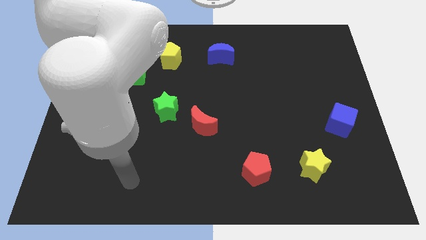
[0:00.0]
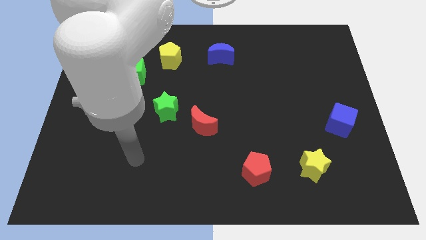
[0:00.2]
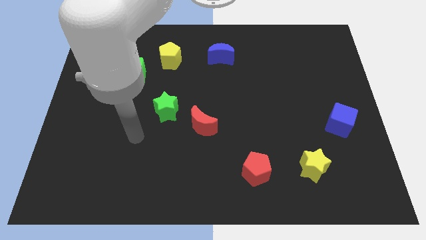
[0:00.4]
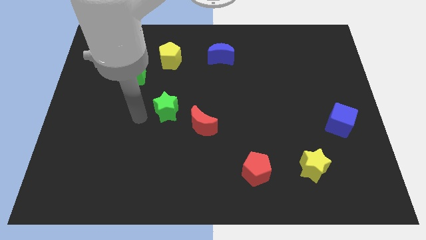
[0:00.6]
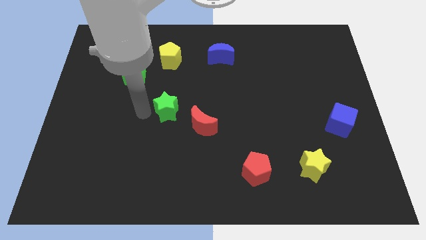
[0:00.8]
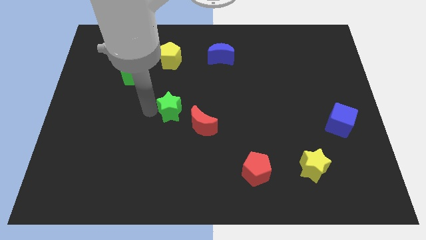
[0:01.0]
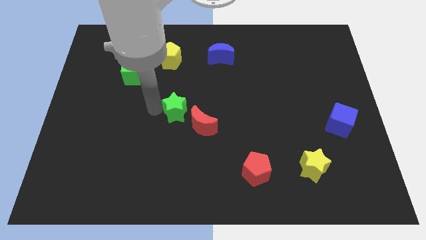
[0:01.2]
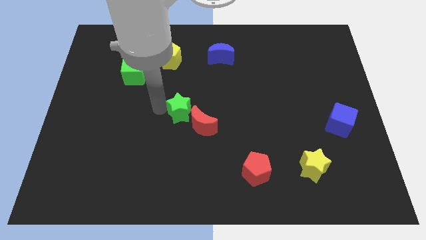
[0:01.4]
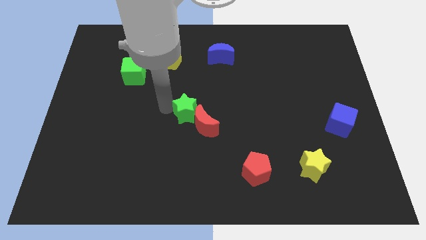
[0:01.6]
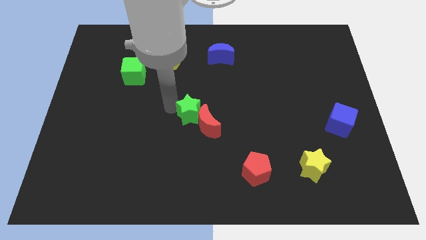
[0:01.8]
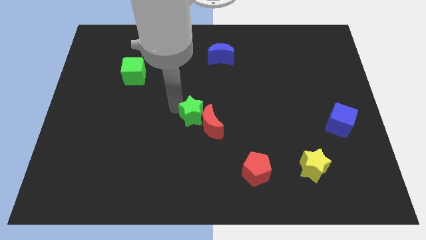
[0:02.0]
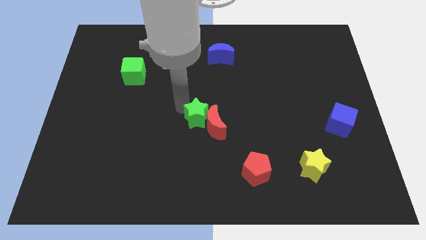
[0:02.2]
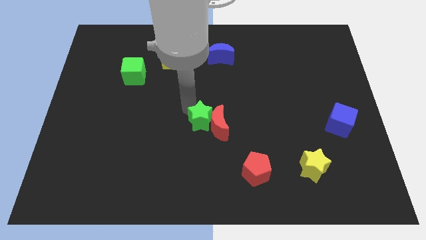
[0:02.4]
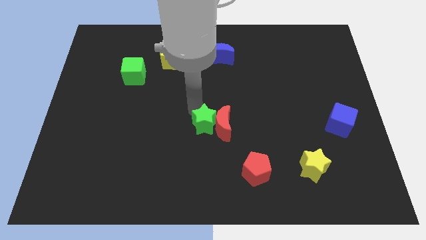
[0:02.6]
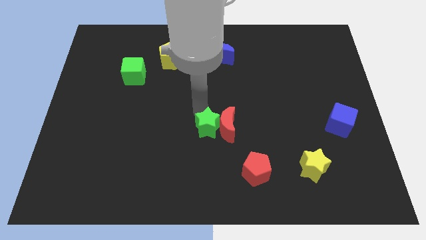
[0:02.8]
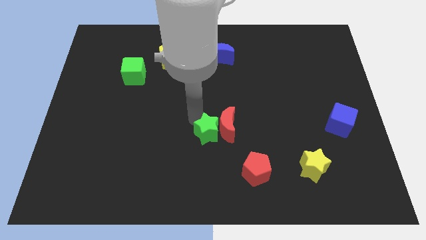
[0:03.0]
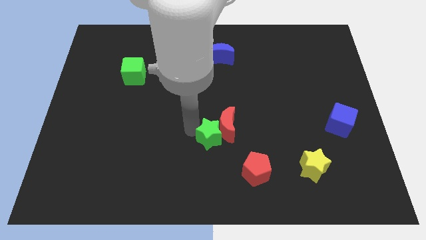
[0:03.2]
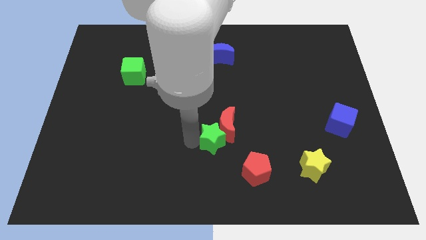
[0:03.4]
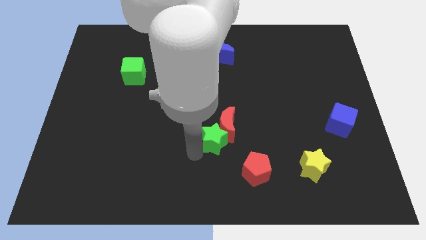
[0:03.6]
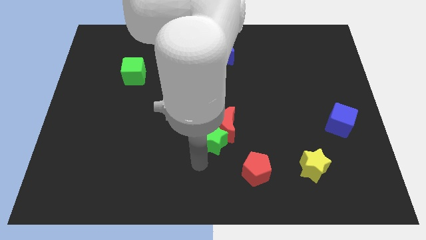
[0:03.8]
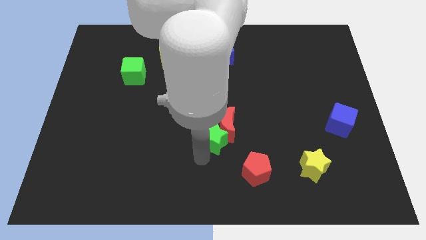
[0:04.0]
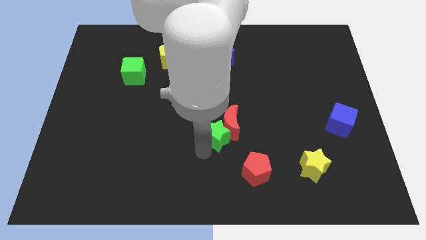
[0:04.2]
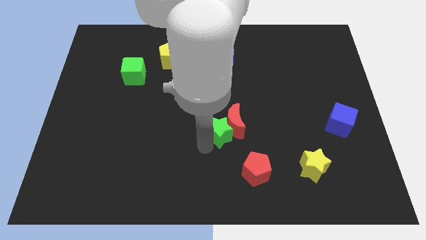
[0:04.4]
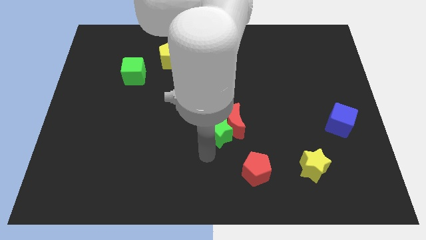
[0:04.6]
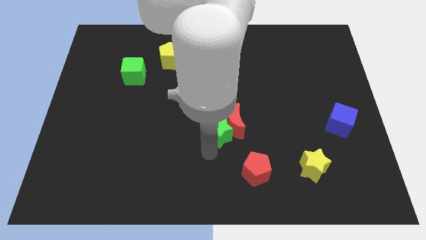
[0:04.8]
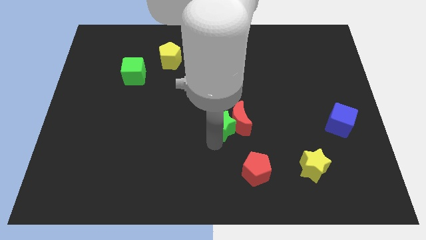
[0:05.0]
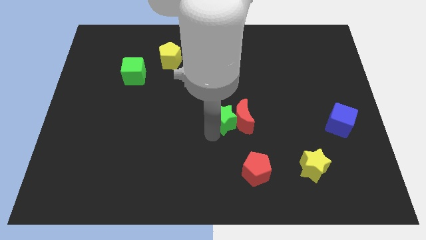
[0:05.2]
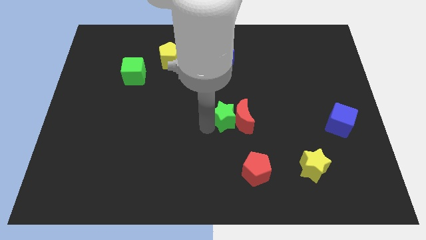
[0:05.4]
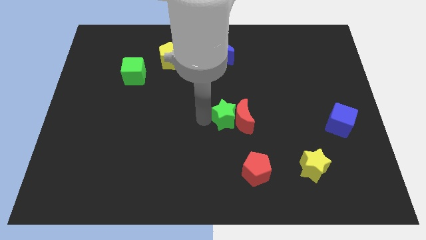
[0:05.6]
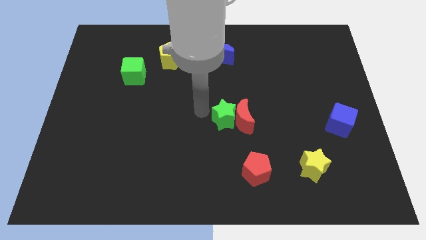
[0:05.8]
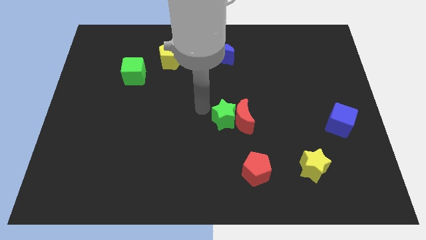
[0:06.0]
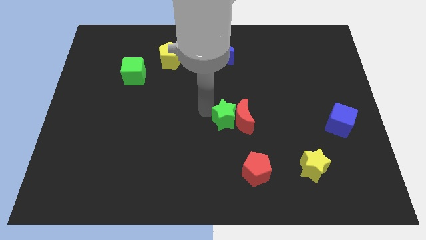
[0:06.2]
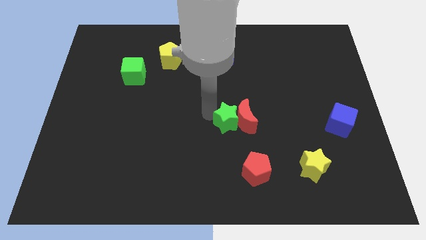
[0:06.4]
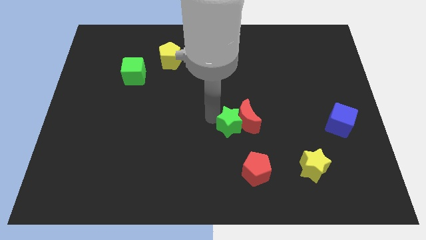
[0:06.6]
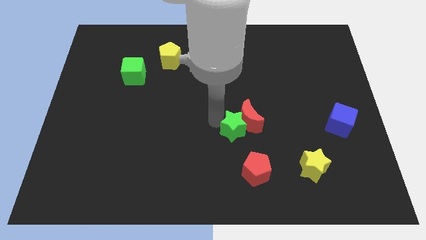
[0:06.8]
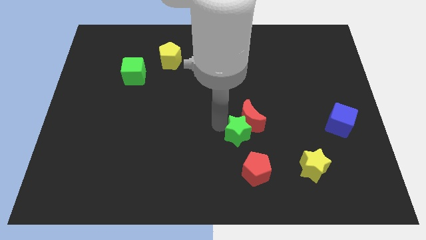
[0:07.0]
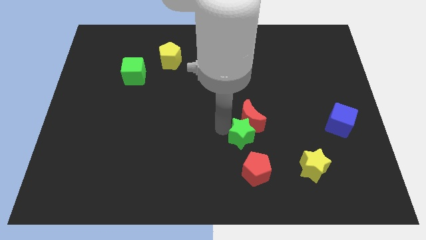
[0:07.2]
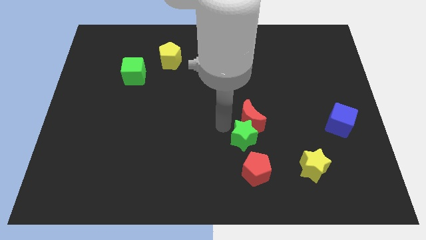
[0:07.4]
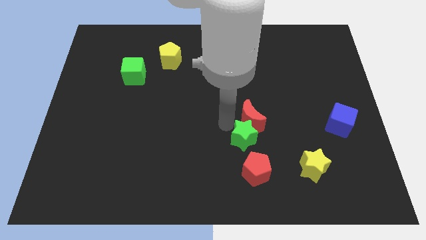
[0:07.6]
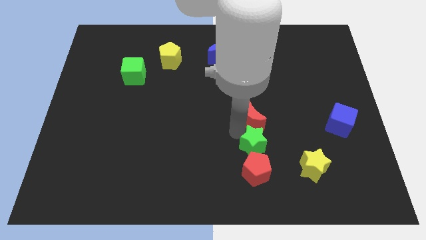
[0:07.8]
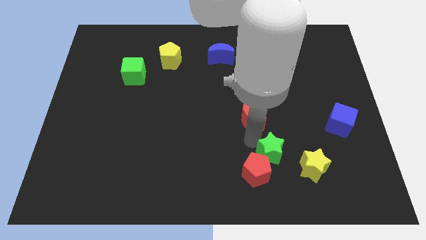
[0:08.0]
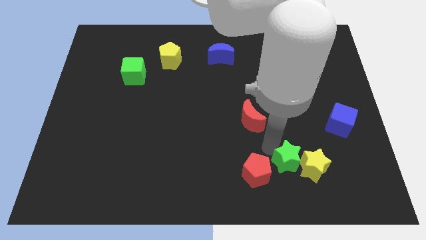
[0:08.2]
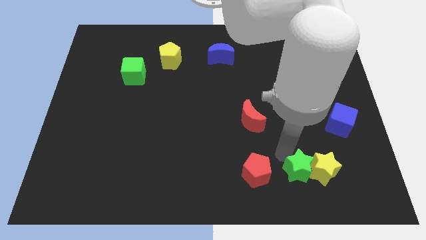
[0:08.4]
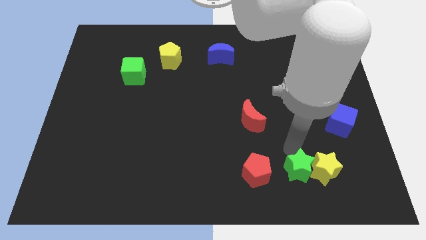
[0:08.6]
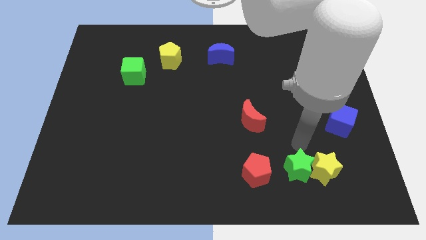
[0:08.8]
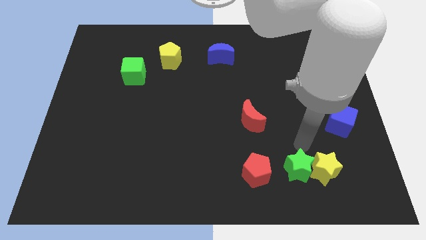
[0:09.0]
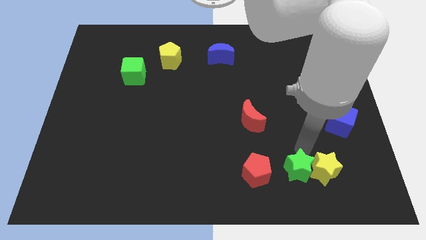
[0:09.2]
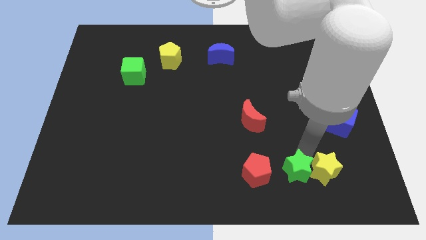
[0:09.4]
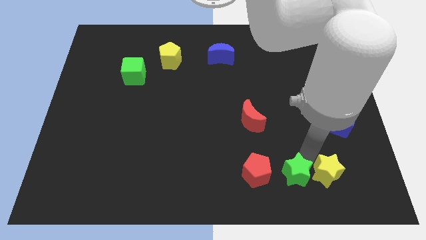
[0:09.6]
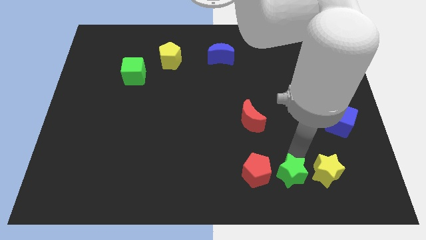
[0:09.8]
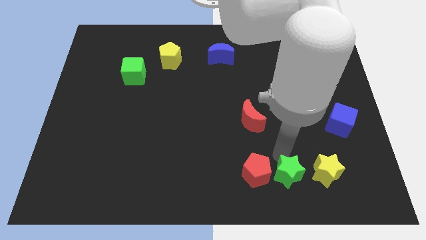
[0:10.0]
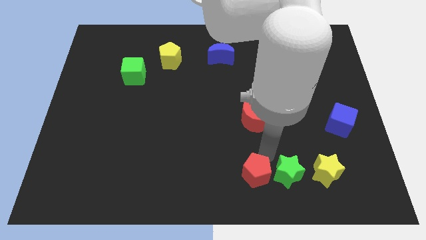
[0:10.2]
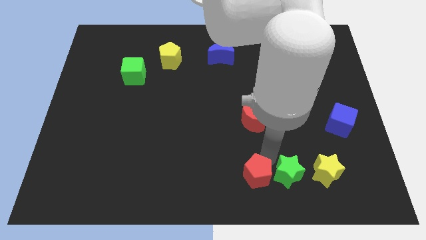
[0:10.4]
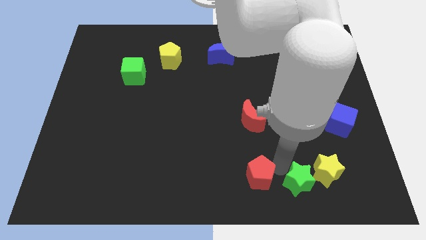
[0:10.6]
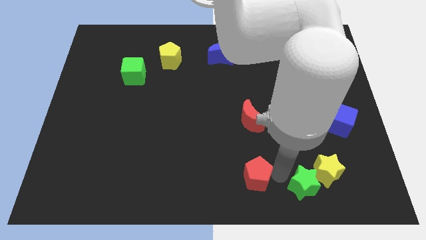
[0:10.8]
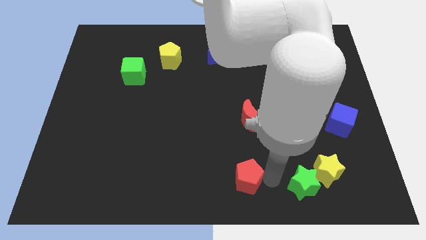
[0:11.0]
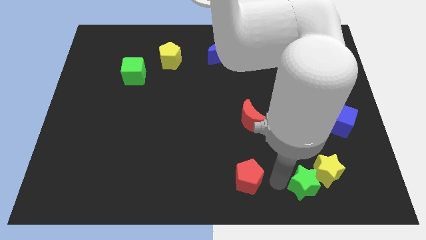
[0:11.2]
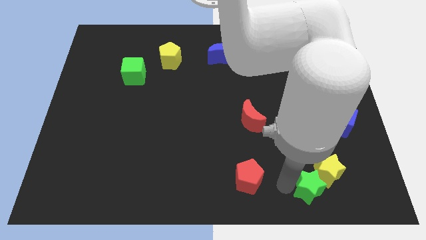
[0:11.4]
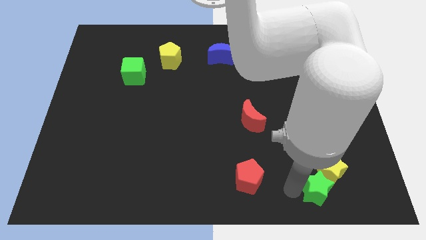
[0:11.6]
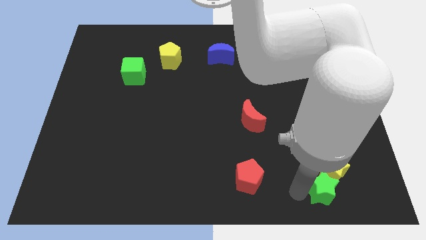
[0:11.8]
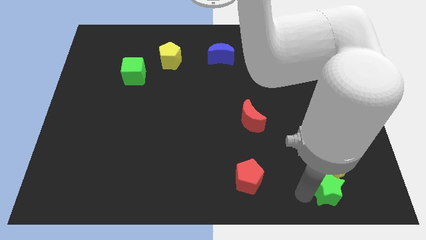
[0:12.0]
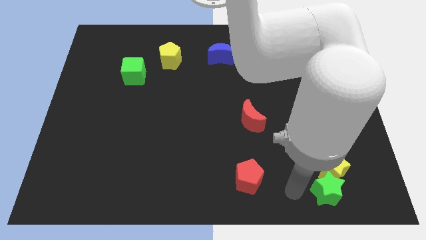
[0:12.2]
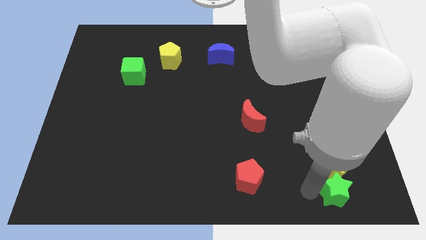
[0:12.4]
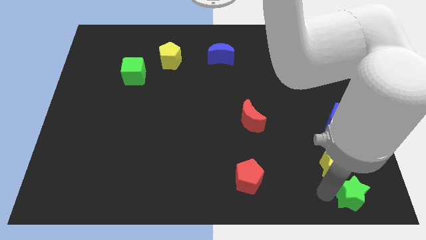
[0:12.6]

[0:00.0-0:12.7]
slide the green star to the bottom right of the board

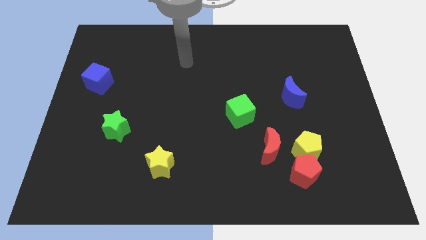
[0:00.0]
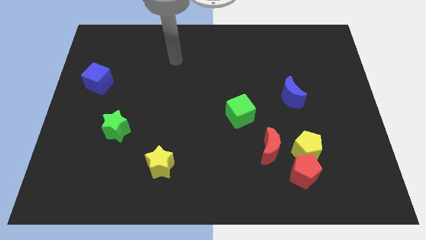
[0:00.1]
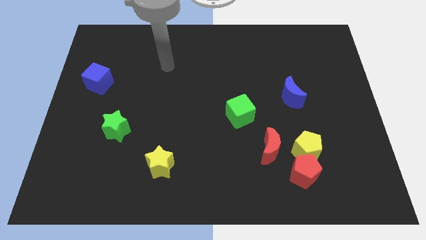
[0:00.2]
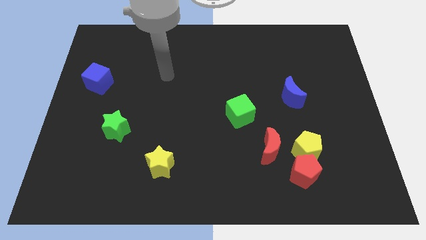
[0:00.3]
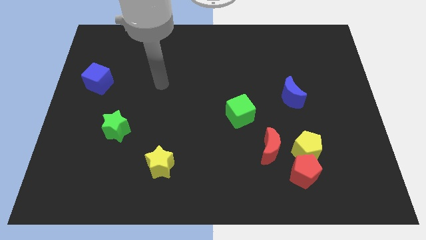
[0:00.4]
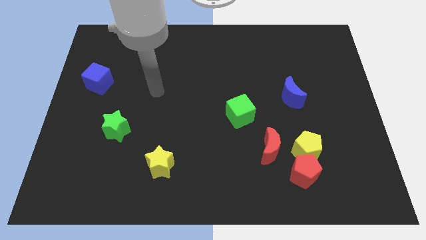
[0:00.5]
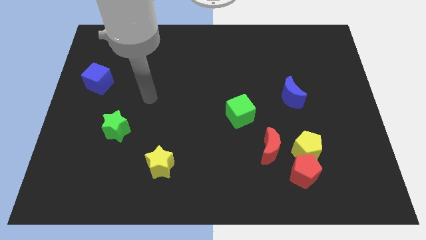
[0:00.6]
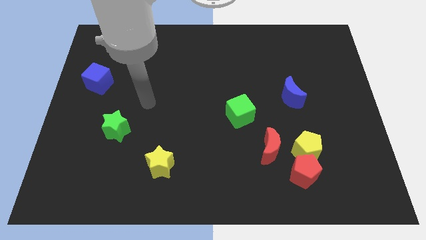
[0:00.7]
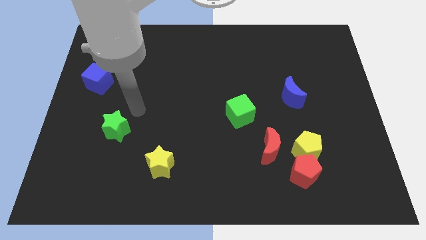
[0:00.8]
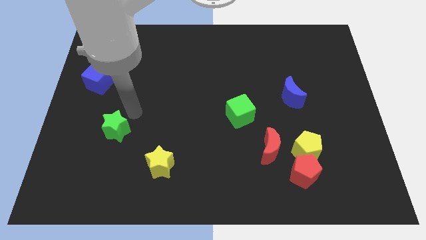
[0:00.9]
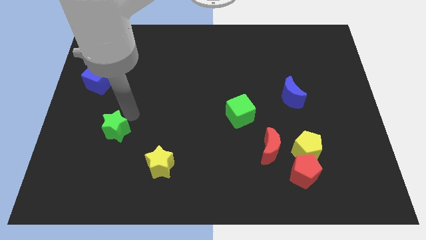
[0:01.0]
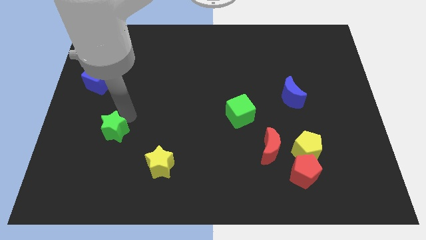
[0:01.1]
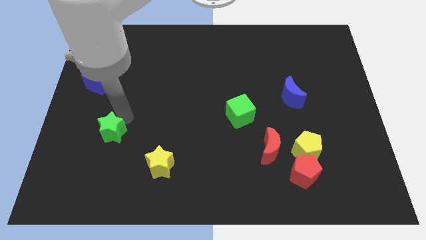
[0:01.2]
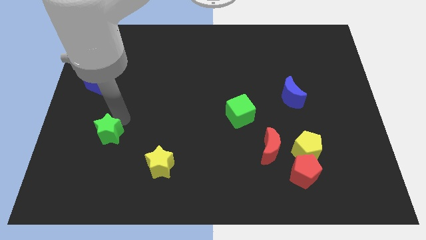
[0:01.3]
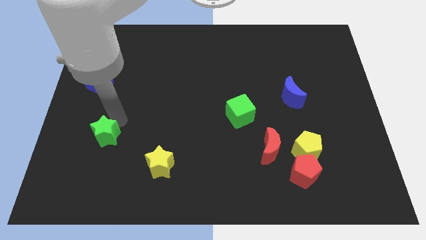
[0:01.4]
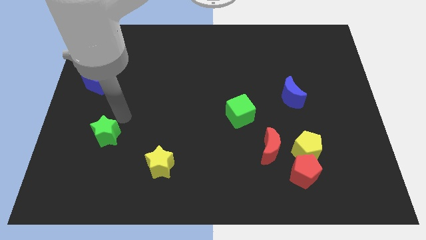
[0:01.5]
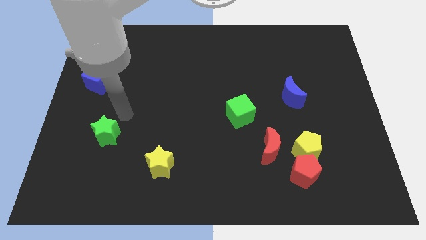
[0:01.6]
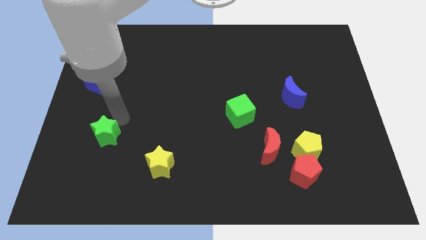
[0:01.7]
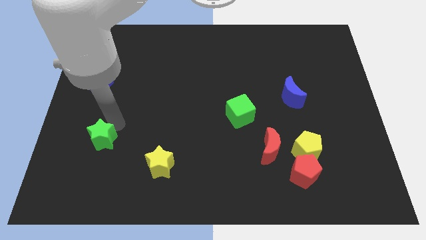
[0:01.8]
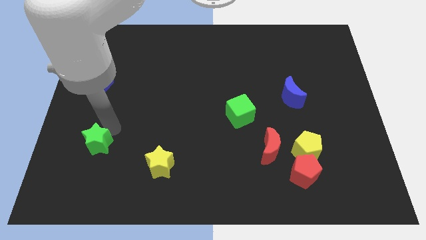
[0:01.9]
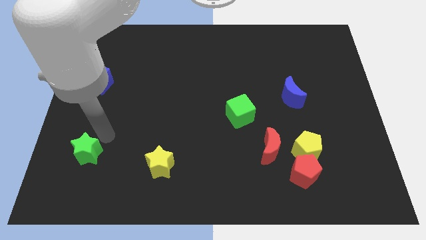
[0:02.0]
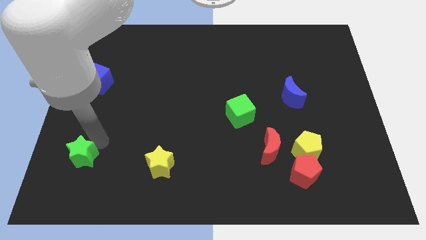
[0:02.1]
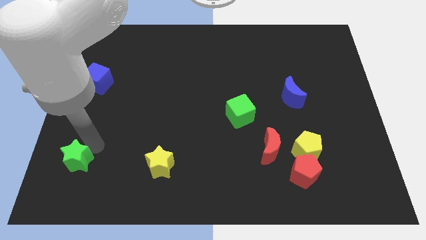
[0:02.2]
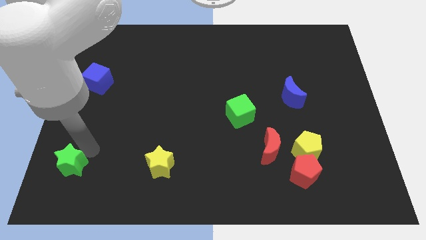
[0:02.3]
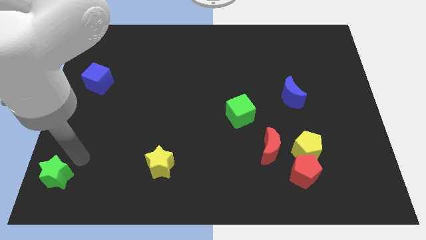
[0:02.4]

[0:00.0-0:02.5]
put the green star to the lower left corner
